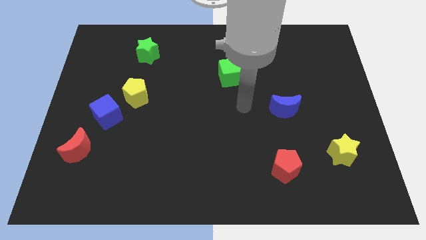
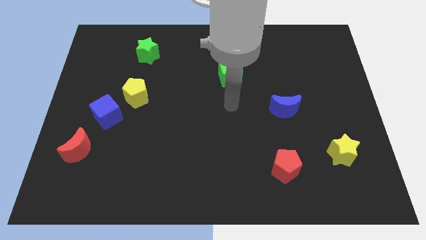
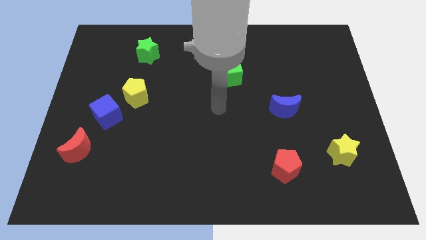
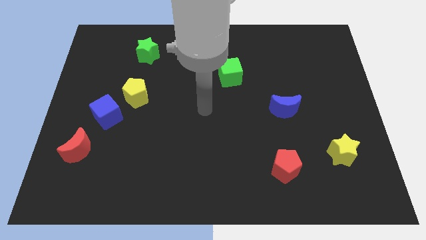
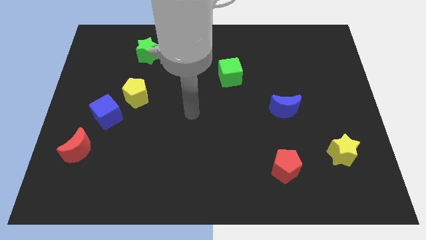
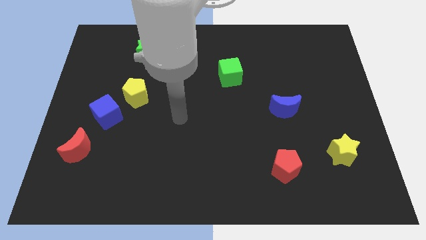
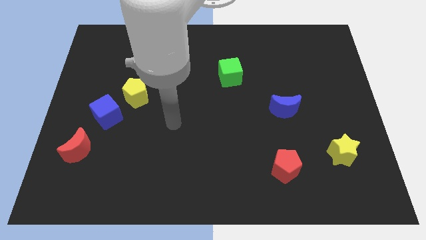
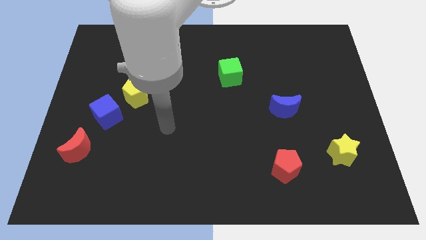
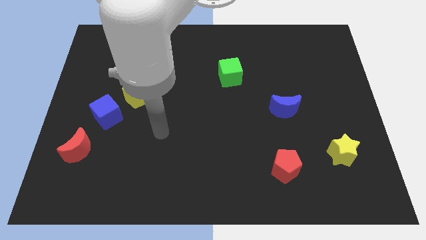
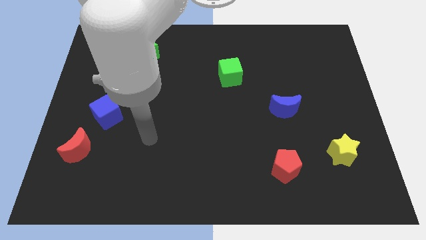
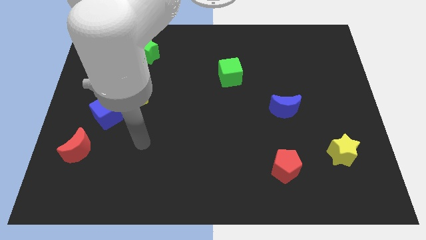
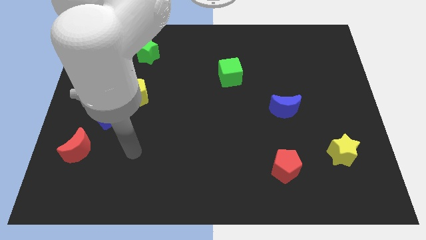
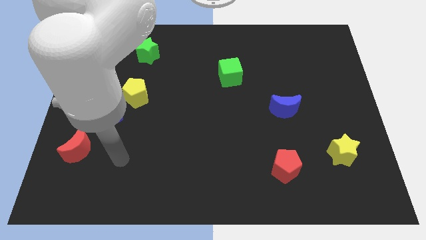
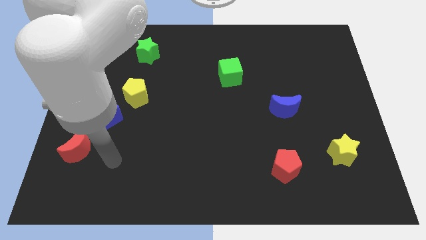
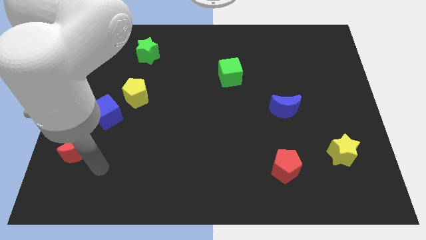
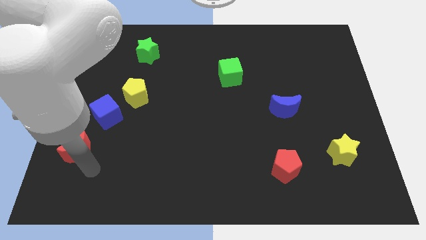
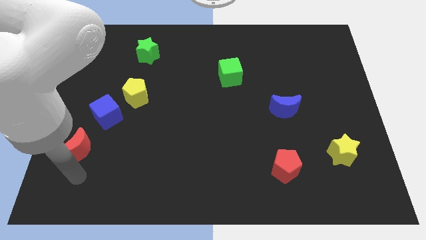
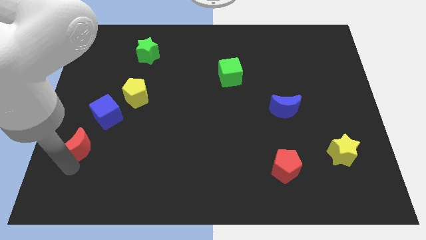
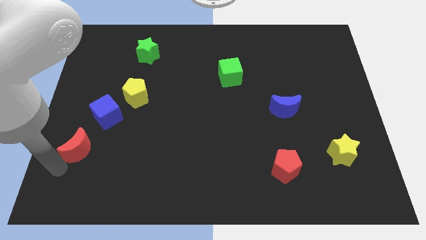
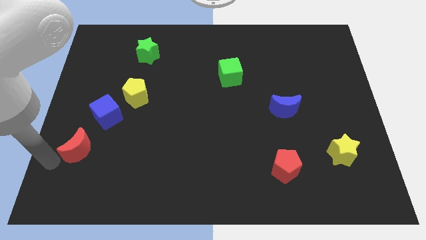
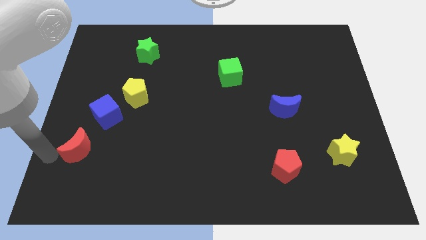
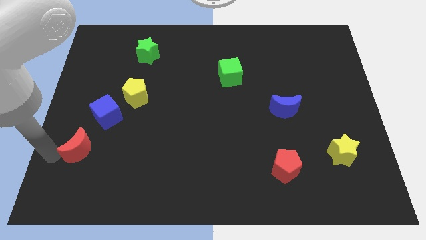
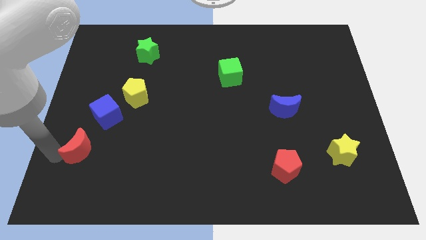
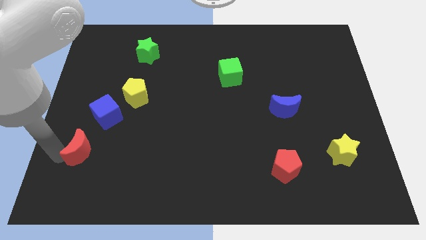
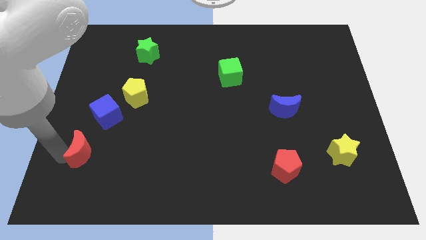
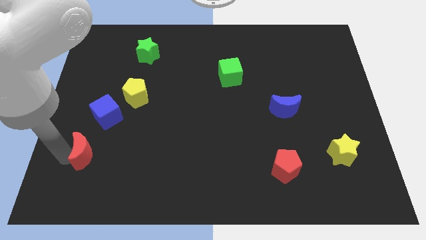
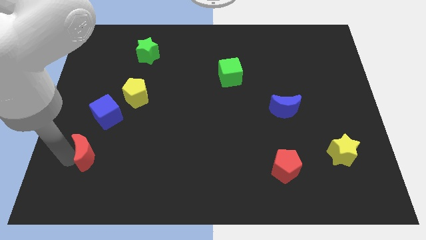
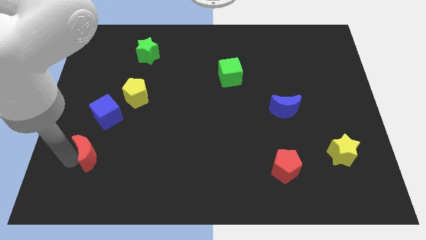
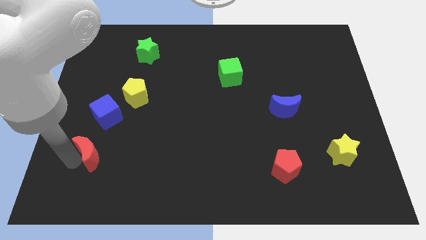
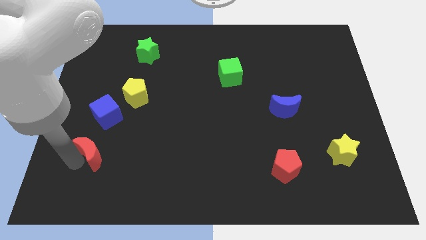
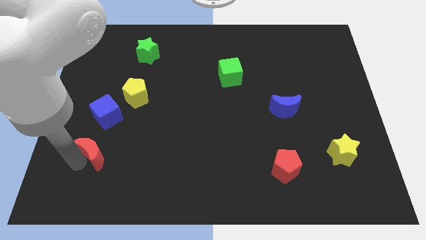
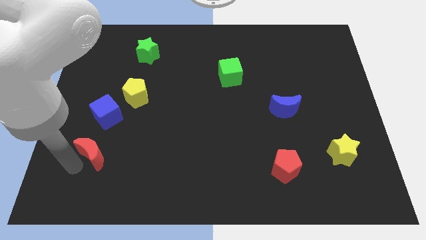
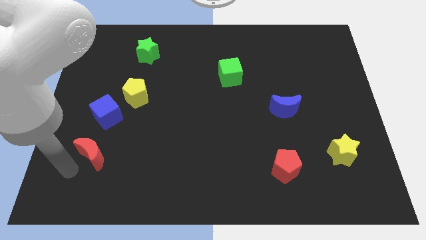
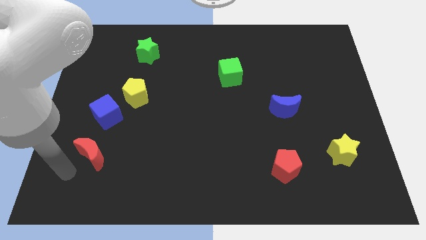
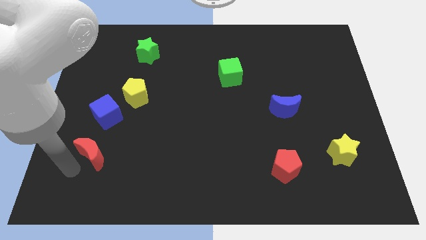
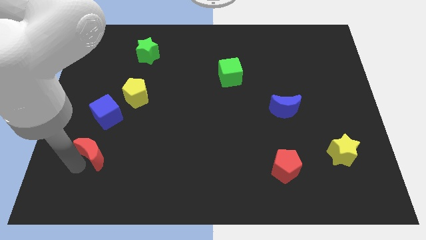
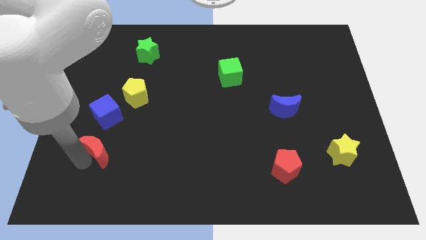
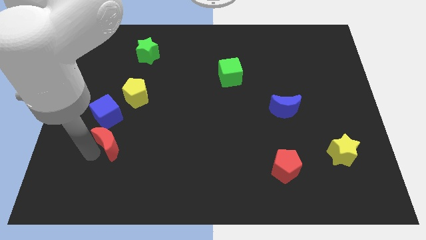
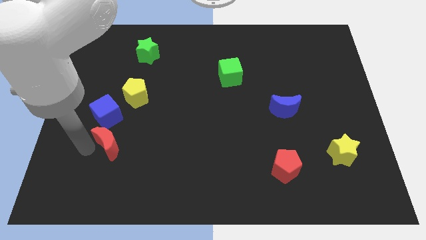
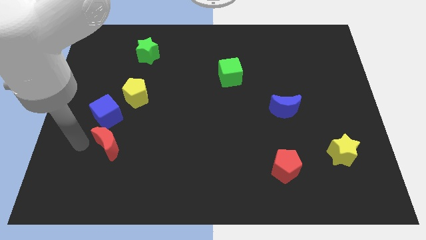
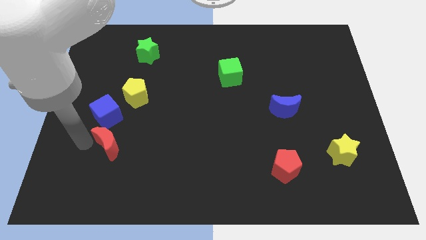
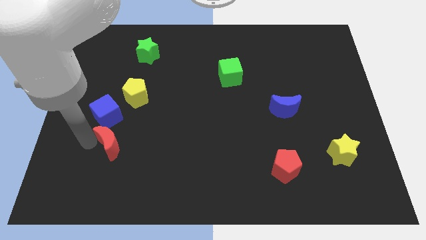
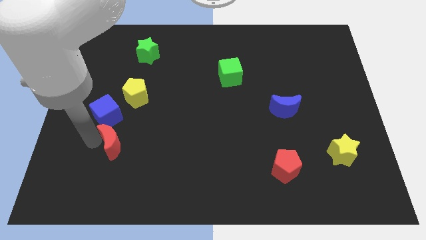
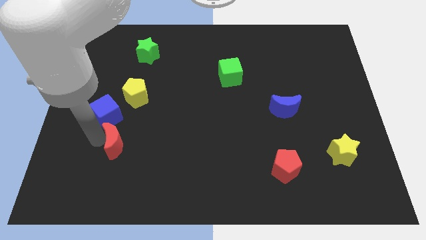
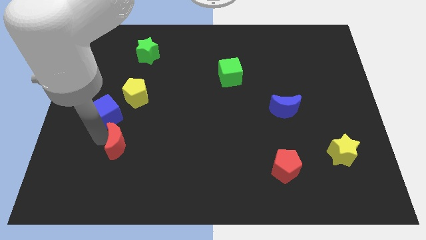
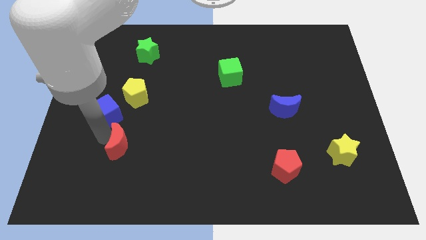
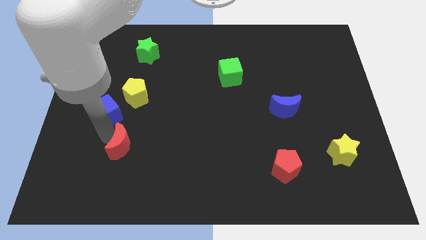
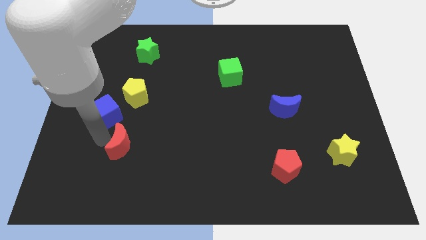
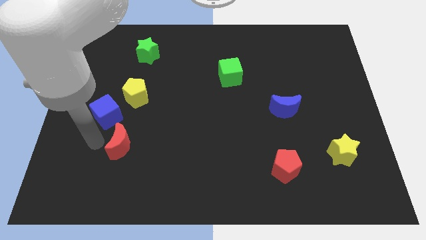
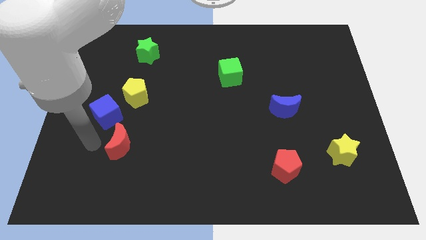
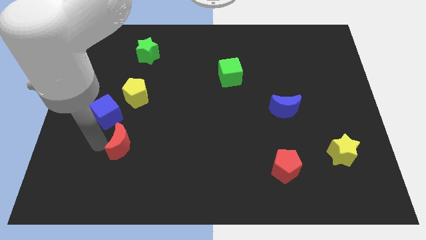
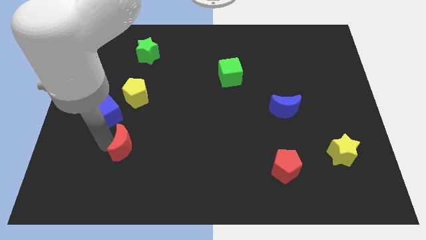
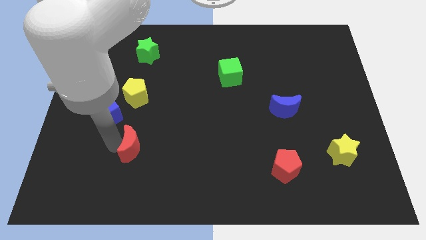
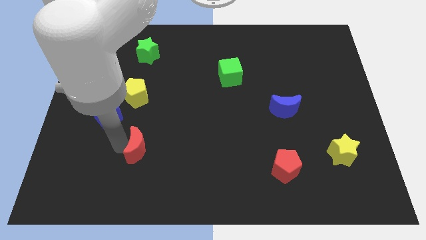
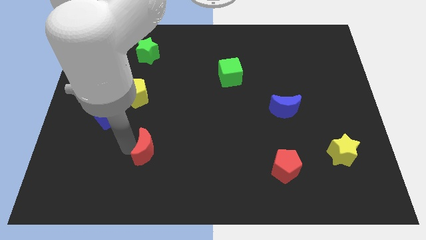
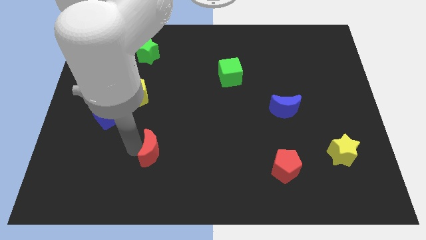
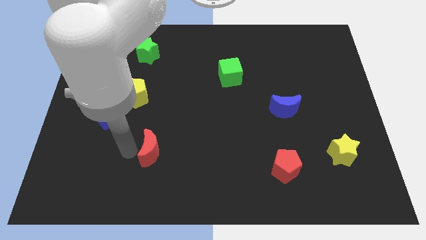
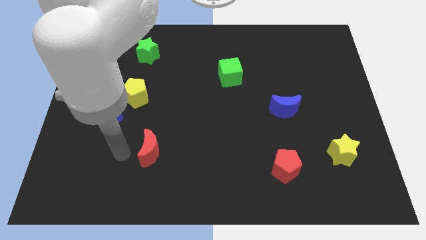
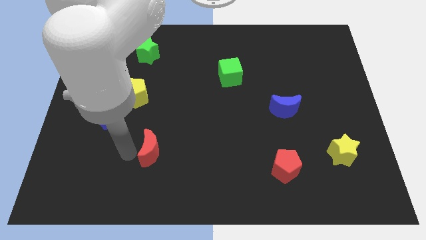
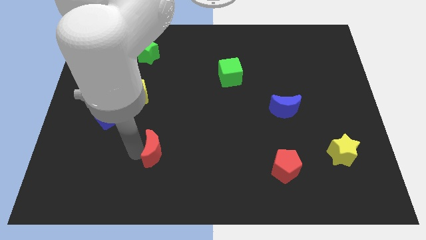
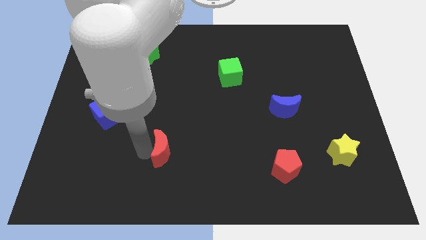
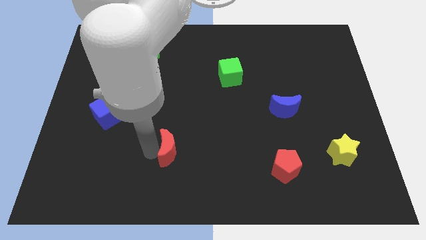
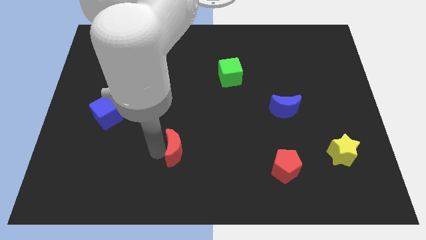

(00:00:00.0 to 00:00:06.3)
slide the red moon right

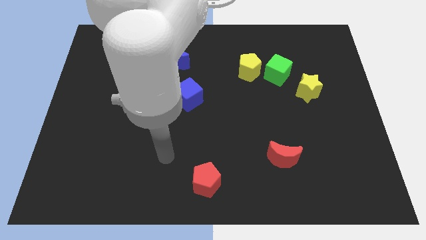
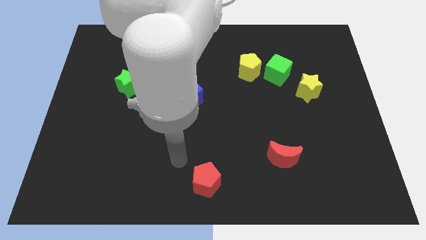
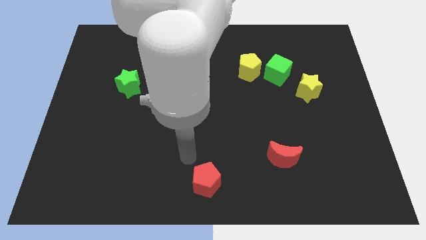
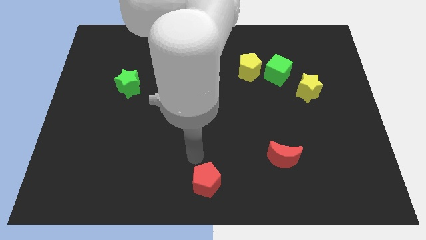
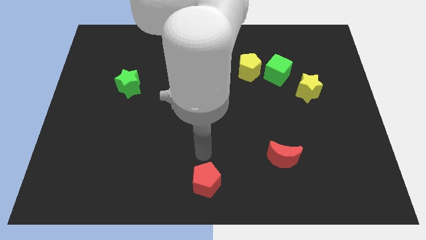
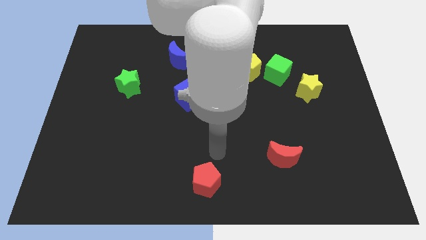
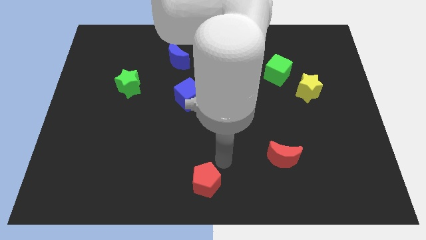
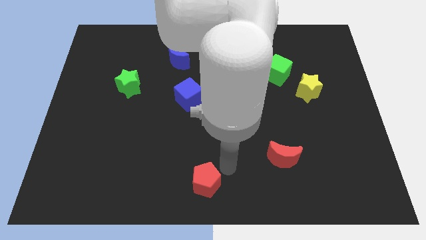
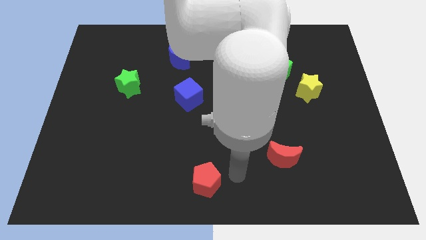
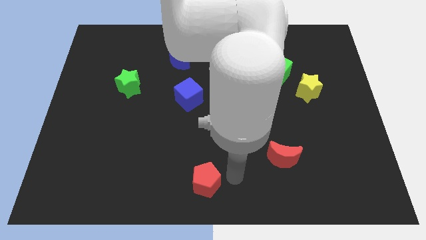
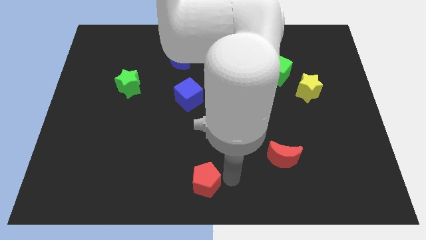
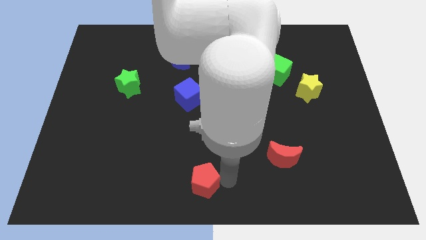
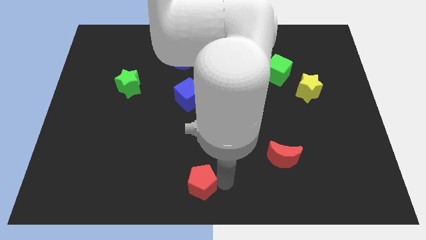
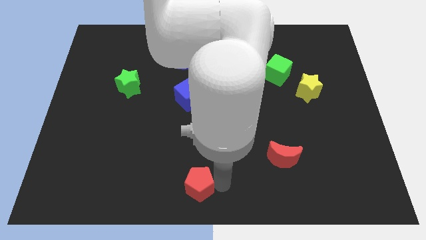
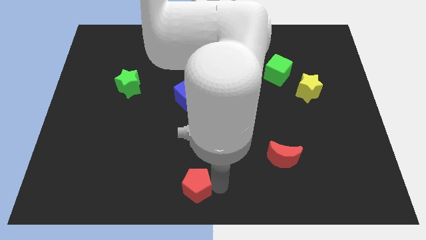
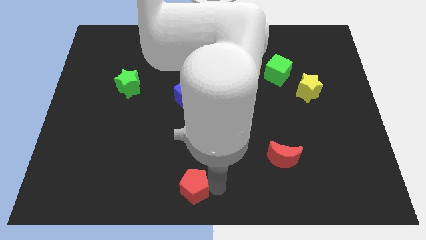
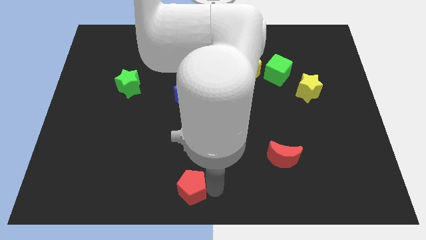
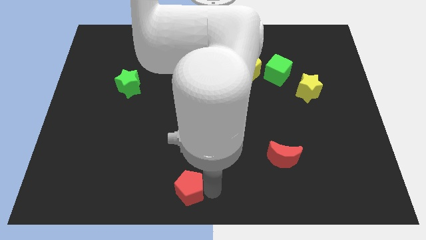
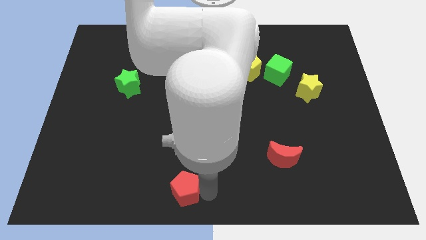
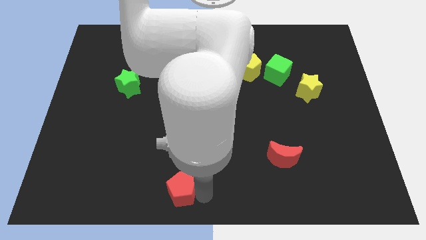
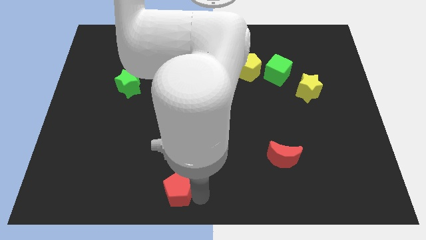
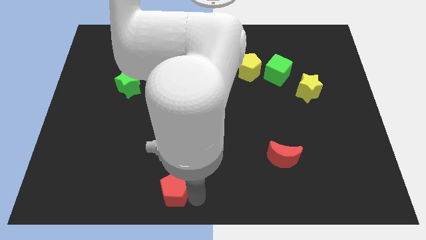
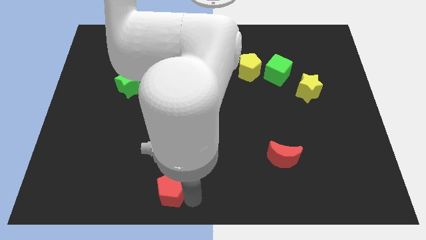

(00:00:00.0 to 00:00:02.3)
slightly move the red pentagon to the left
